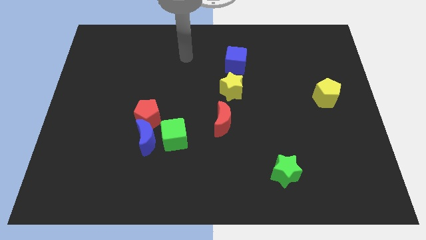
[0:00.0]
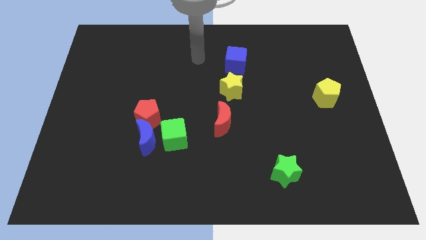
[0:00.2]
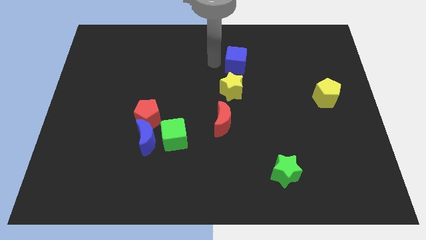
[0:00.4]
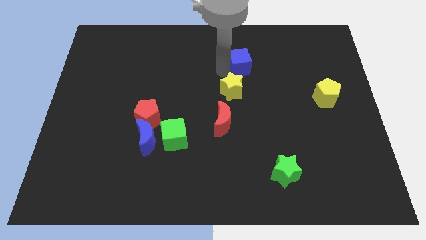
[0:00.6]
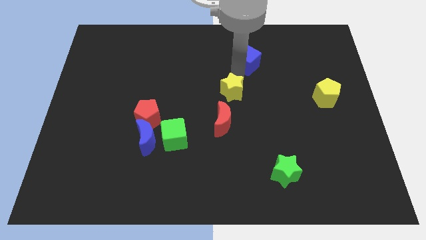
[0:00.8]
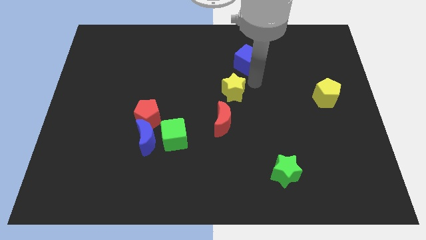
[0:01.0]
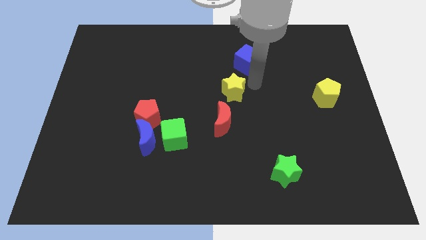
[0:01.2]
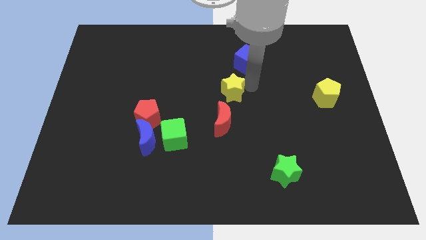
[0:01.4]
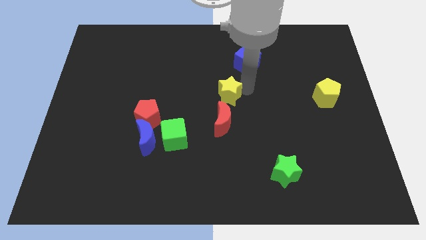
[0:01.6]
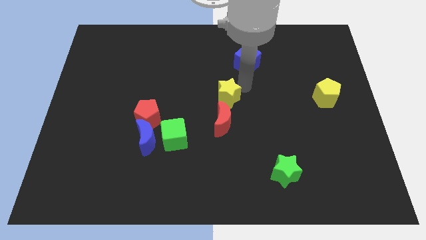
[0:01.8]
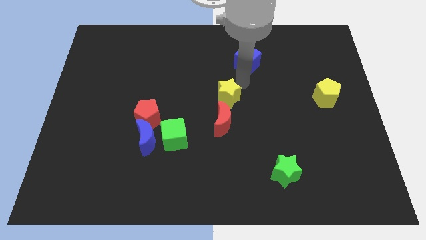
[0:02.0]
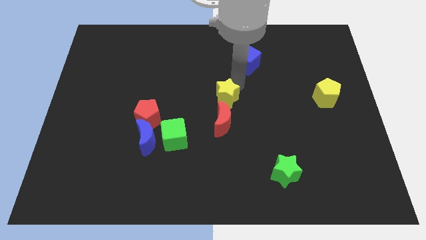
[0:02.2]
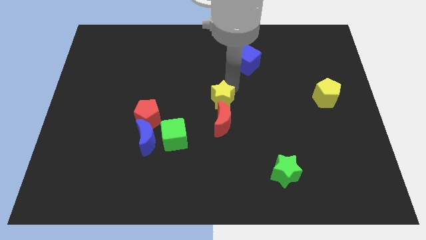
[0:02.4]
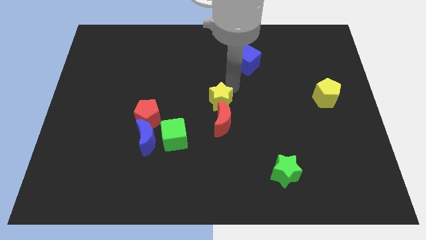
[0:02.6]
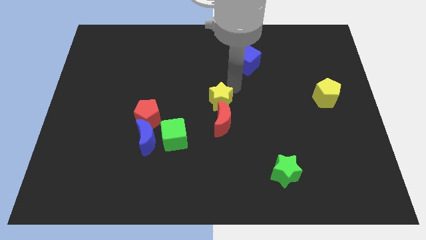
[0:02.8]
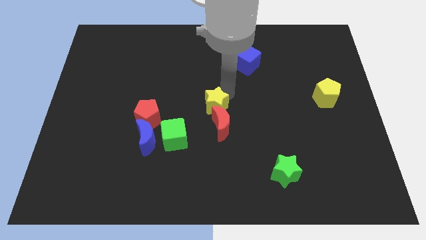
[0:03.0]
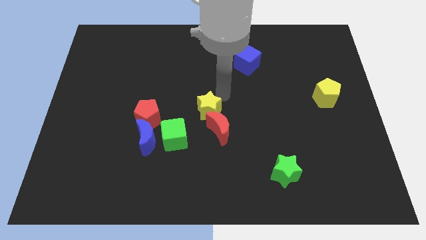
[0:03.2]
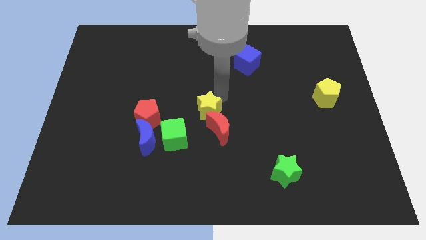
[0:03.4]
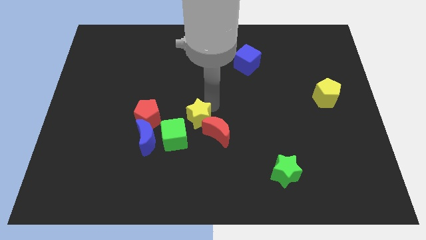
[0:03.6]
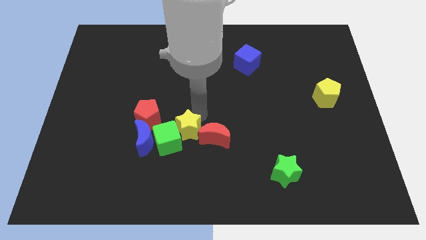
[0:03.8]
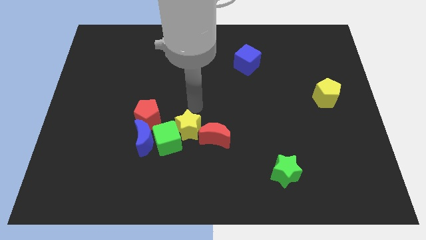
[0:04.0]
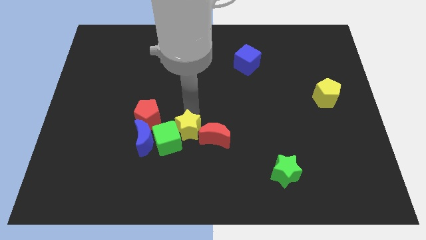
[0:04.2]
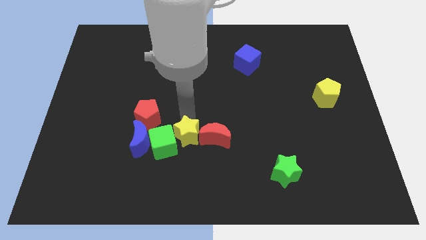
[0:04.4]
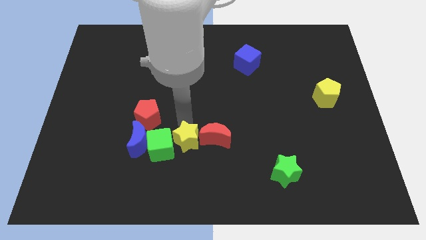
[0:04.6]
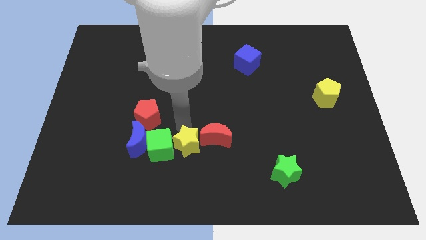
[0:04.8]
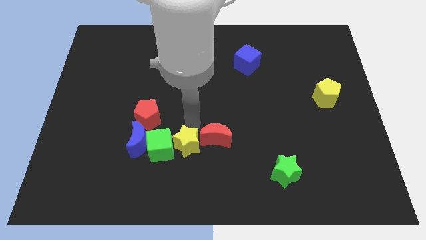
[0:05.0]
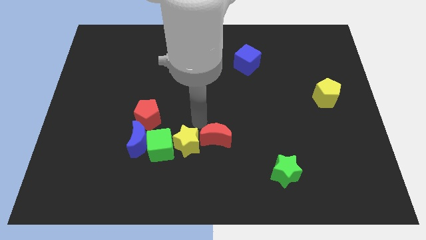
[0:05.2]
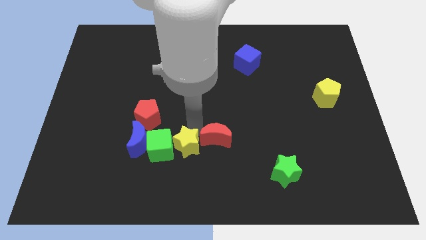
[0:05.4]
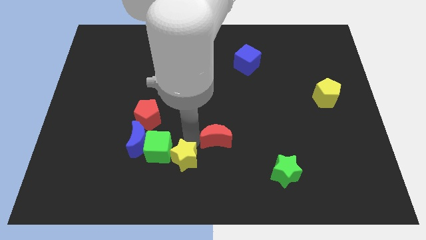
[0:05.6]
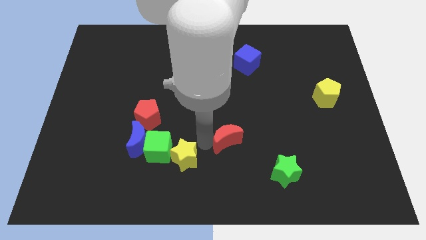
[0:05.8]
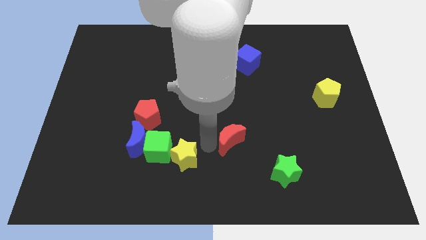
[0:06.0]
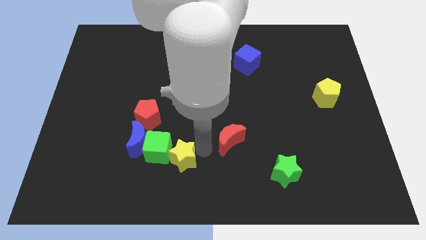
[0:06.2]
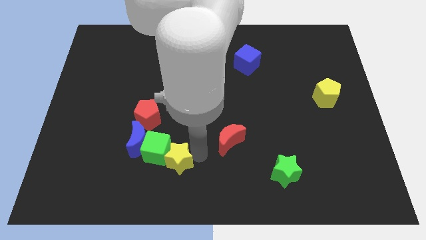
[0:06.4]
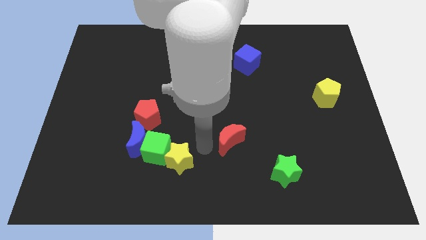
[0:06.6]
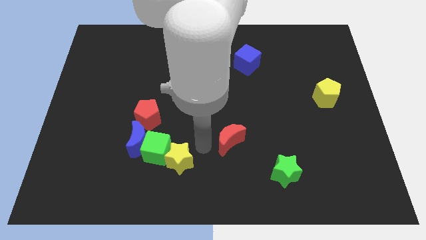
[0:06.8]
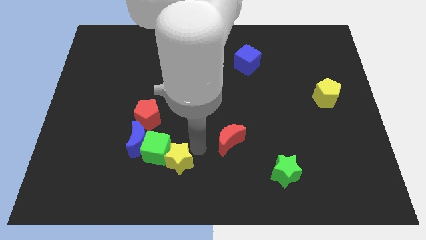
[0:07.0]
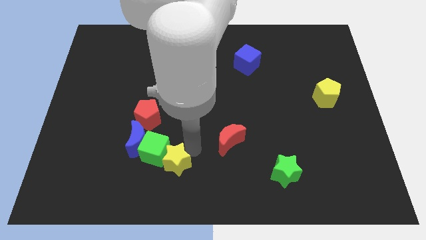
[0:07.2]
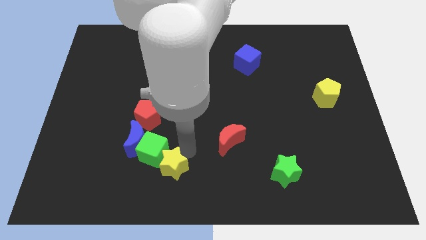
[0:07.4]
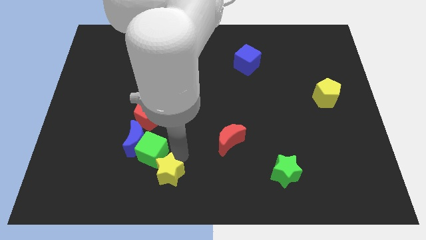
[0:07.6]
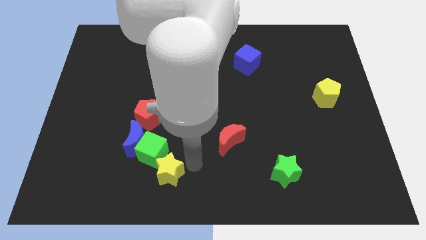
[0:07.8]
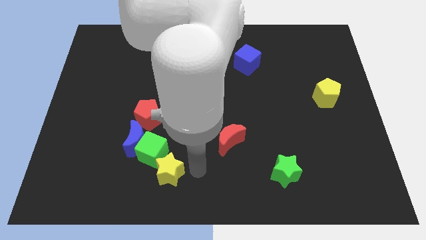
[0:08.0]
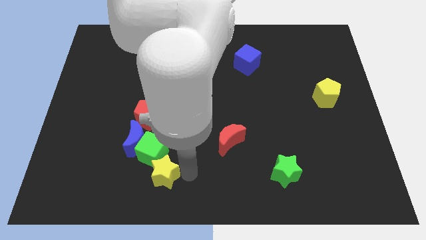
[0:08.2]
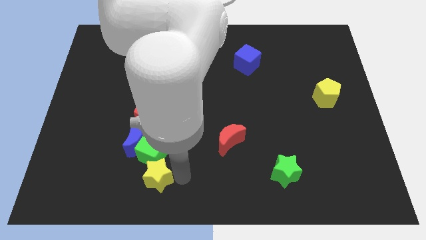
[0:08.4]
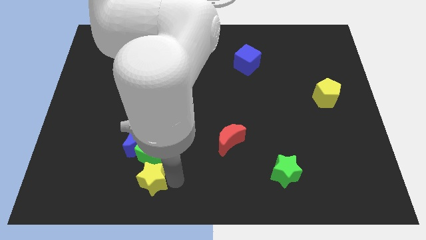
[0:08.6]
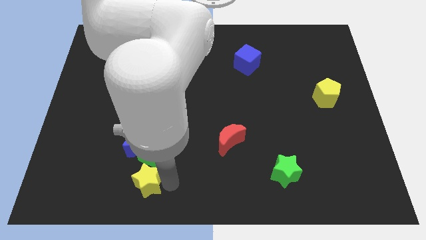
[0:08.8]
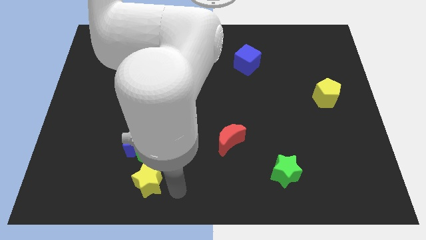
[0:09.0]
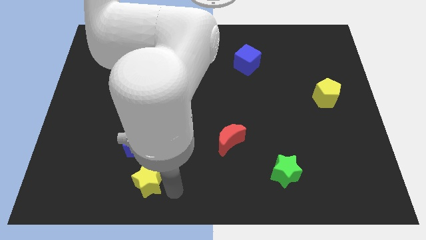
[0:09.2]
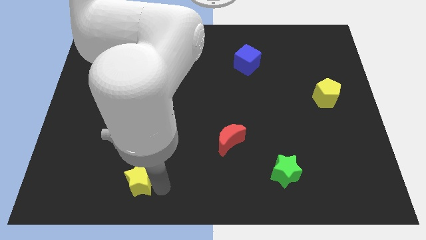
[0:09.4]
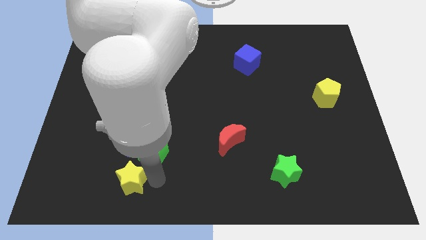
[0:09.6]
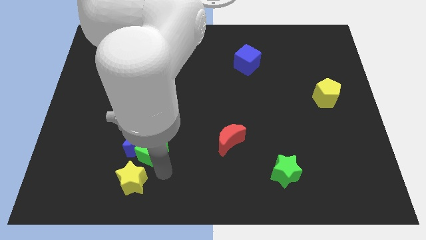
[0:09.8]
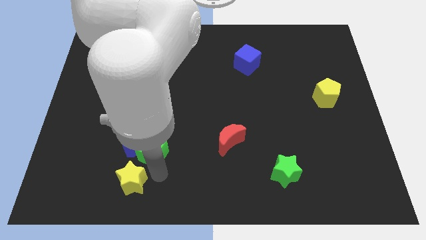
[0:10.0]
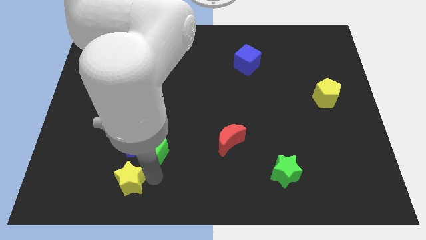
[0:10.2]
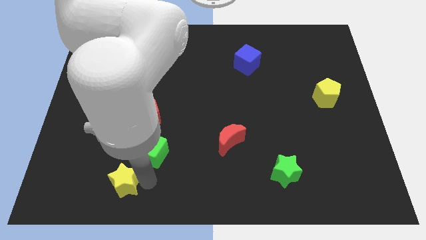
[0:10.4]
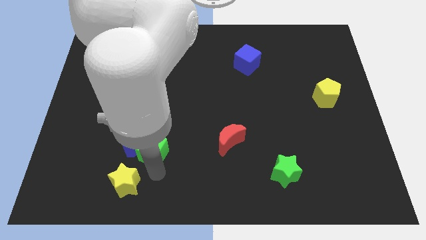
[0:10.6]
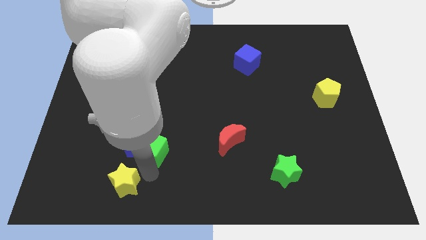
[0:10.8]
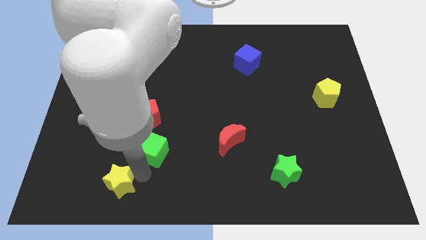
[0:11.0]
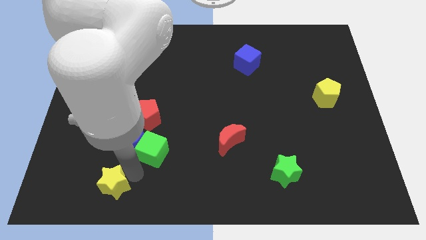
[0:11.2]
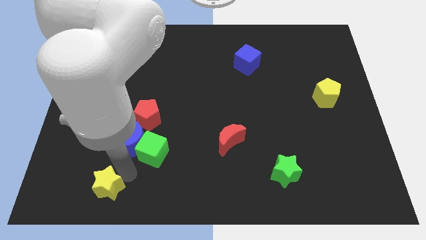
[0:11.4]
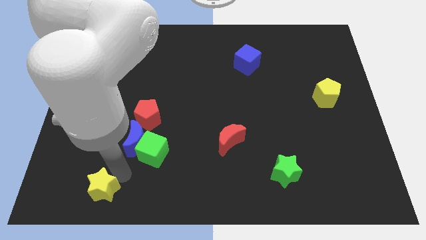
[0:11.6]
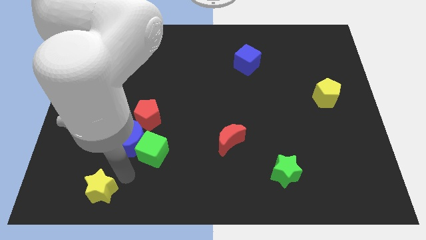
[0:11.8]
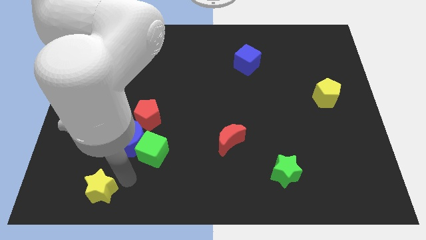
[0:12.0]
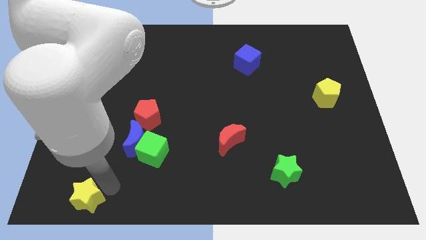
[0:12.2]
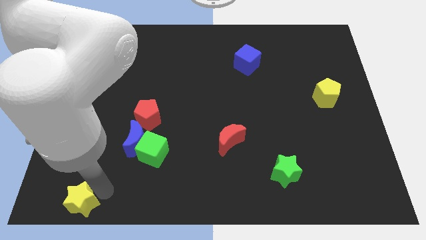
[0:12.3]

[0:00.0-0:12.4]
push the yellow star to the bottom left of the board
